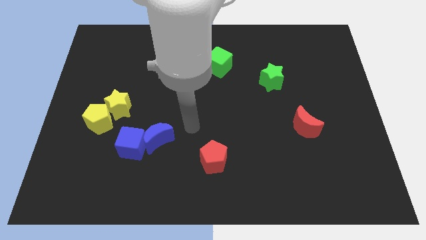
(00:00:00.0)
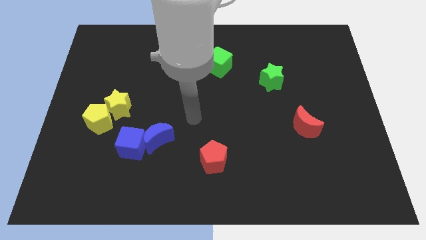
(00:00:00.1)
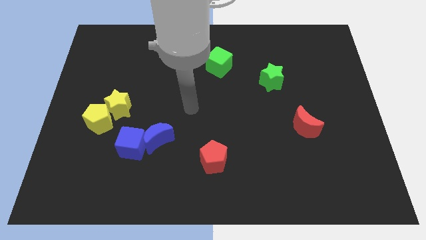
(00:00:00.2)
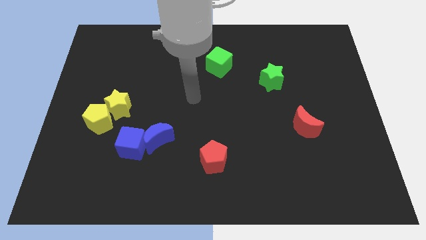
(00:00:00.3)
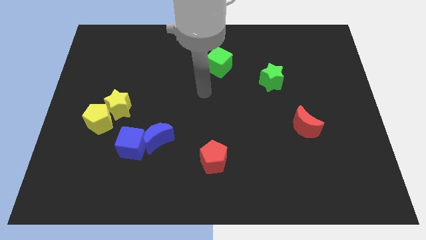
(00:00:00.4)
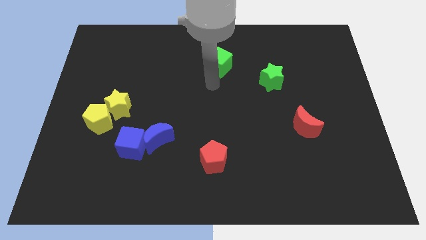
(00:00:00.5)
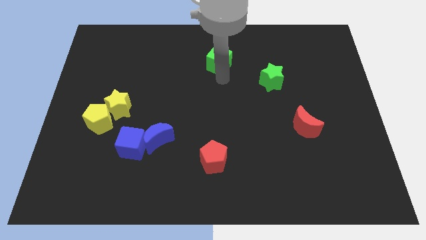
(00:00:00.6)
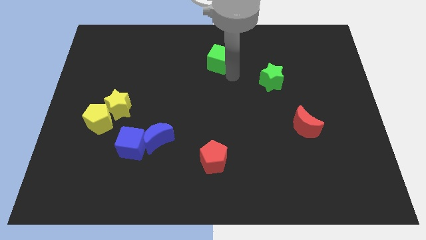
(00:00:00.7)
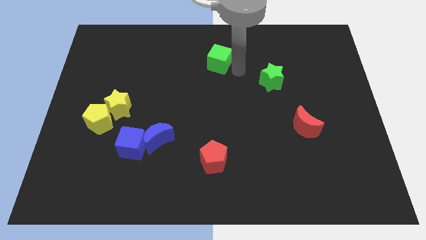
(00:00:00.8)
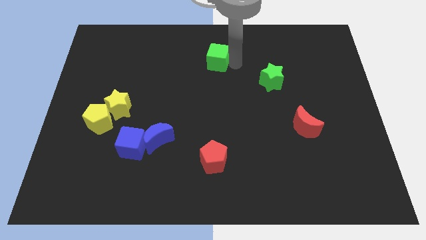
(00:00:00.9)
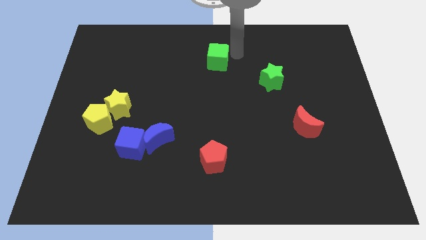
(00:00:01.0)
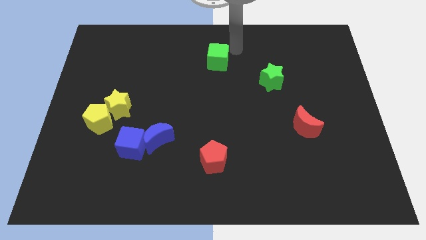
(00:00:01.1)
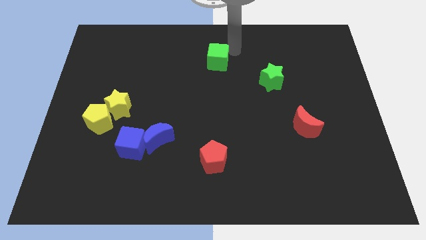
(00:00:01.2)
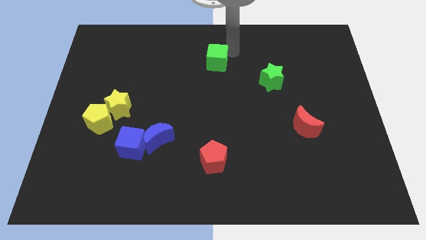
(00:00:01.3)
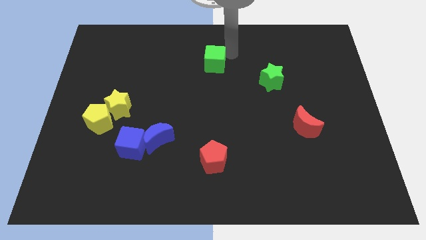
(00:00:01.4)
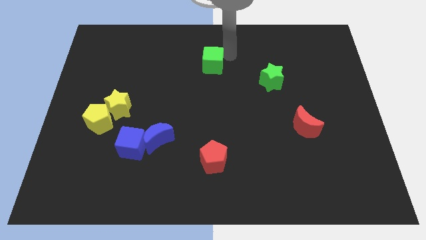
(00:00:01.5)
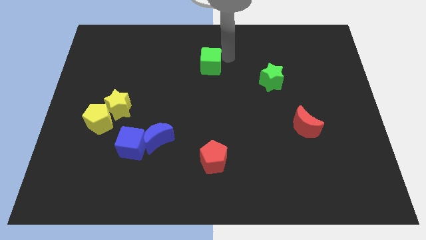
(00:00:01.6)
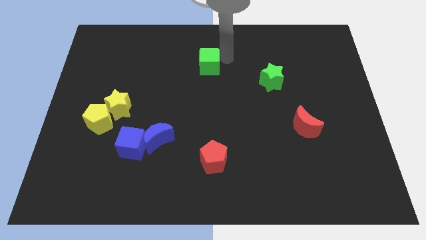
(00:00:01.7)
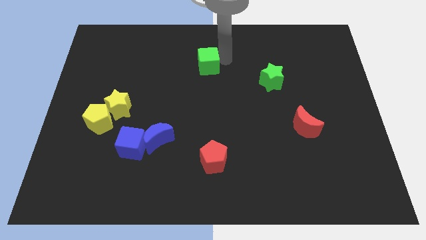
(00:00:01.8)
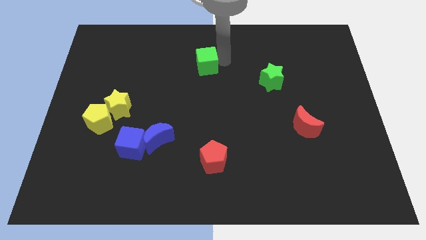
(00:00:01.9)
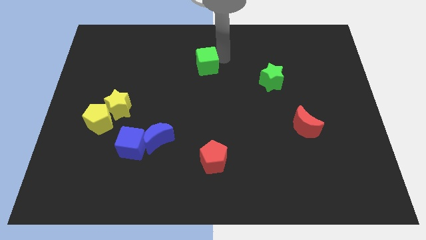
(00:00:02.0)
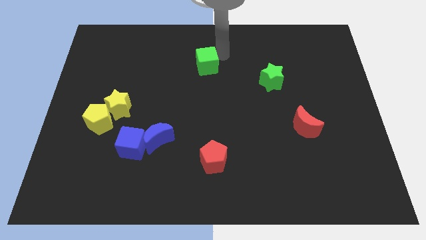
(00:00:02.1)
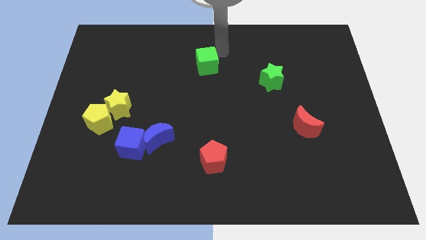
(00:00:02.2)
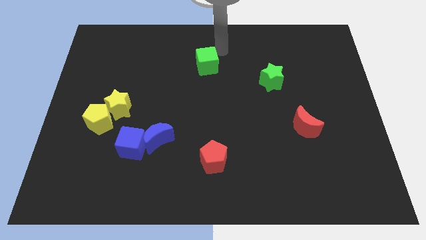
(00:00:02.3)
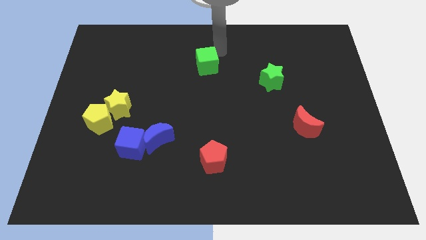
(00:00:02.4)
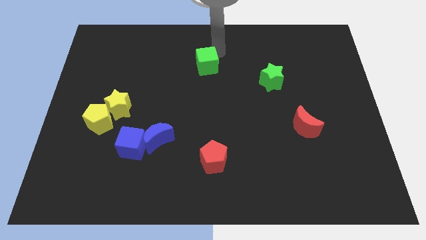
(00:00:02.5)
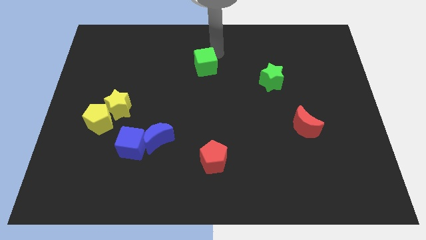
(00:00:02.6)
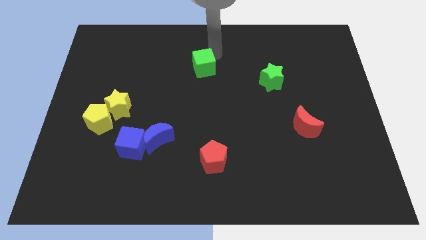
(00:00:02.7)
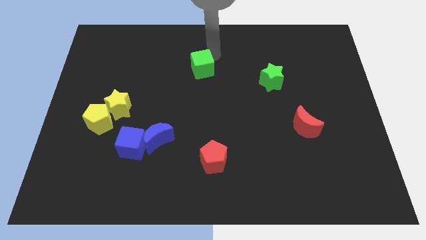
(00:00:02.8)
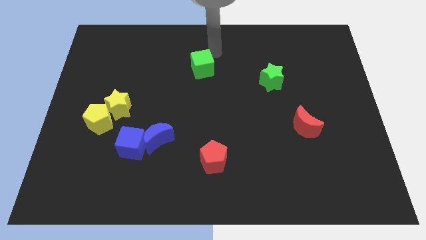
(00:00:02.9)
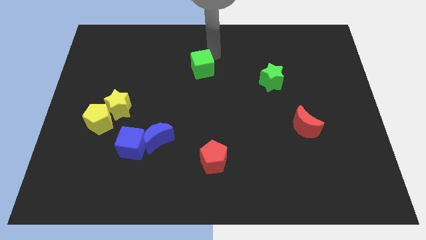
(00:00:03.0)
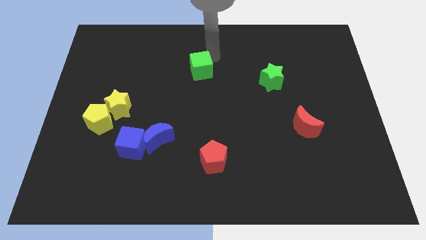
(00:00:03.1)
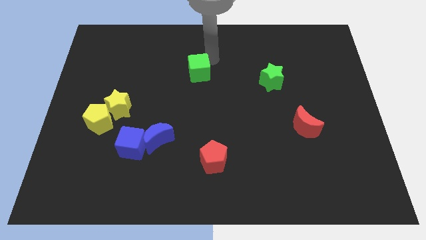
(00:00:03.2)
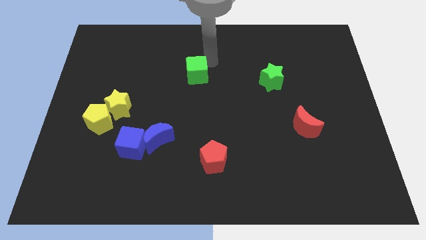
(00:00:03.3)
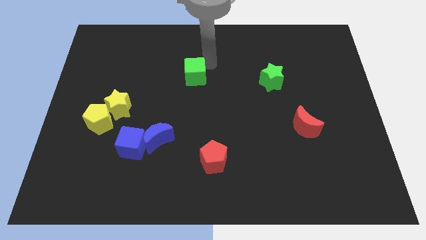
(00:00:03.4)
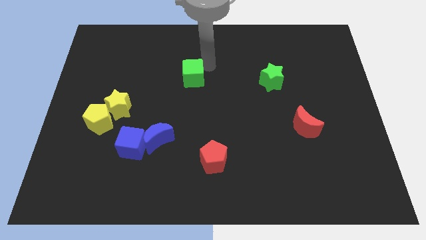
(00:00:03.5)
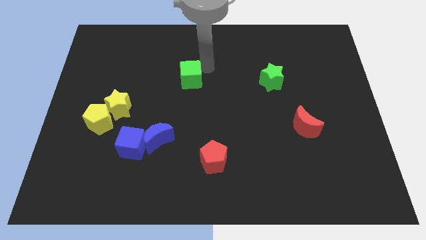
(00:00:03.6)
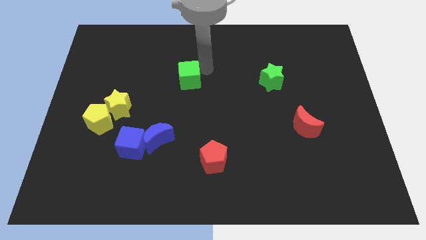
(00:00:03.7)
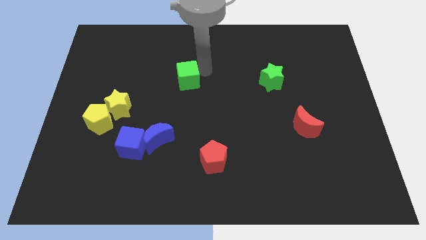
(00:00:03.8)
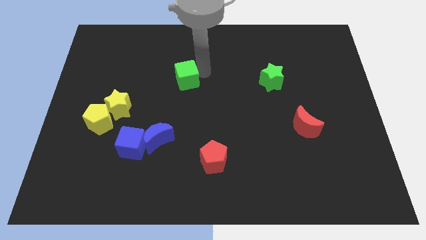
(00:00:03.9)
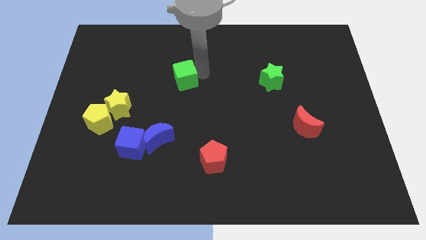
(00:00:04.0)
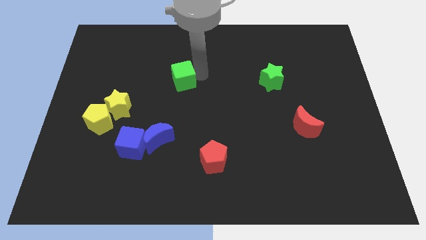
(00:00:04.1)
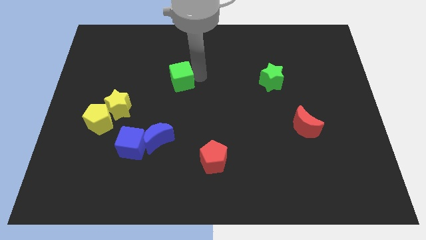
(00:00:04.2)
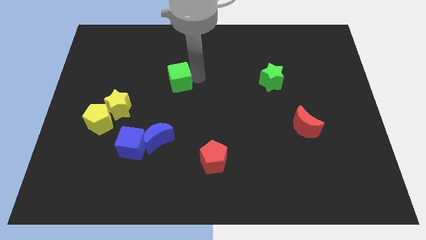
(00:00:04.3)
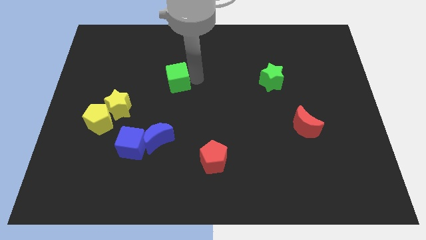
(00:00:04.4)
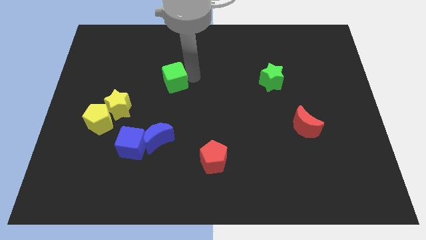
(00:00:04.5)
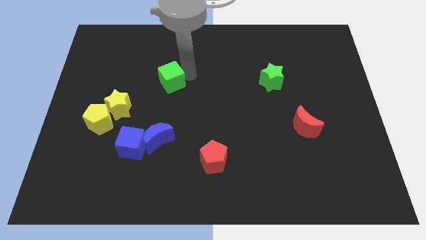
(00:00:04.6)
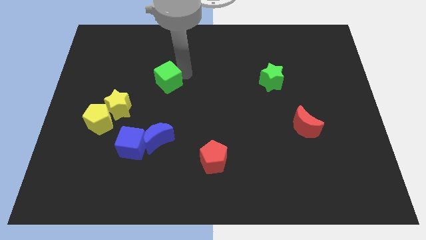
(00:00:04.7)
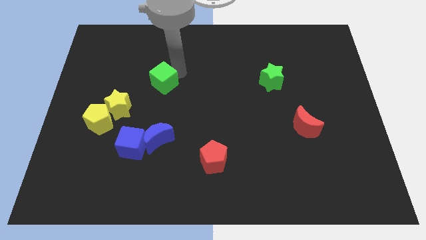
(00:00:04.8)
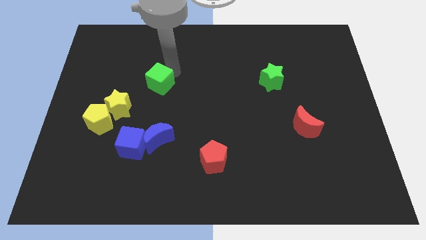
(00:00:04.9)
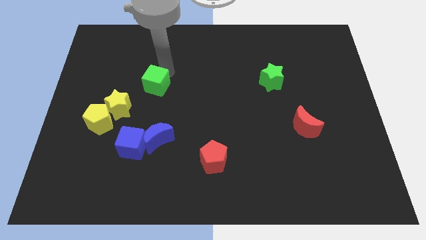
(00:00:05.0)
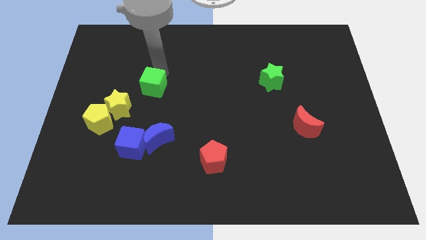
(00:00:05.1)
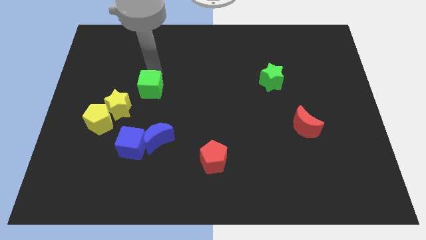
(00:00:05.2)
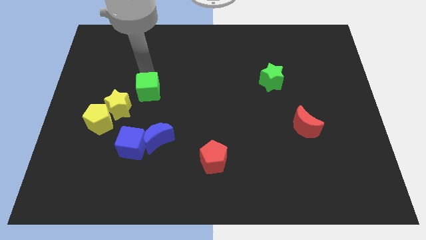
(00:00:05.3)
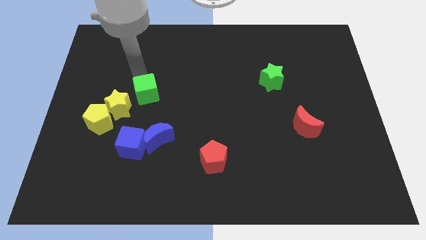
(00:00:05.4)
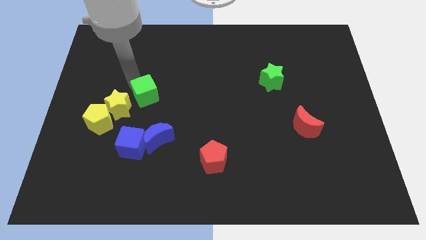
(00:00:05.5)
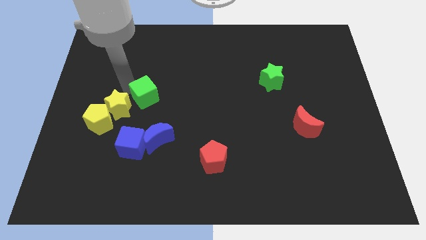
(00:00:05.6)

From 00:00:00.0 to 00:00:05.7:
slide the green cube towards the yellow star
